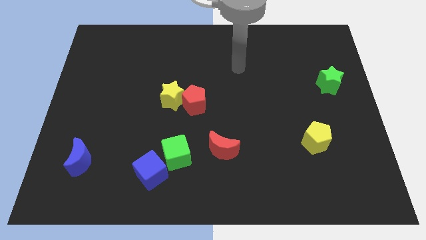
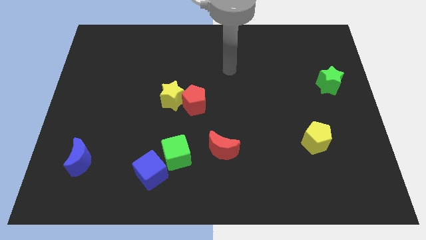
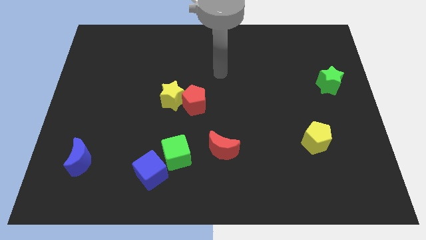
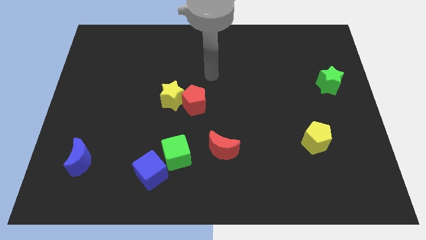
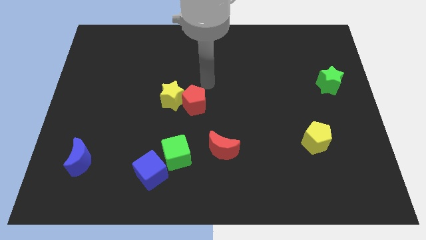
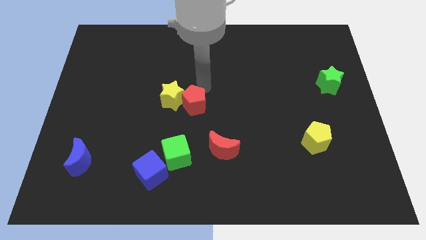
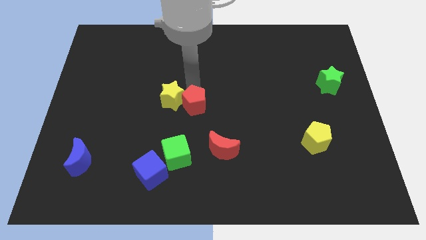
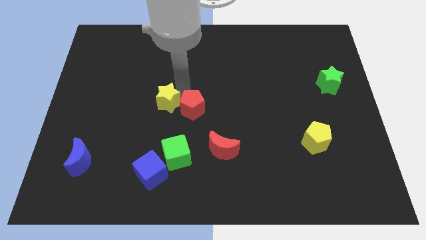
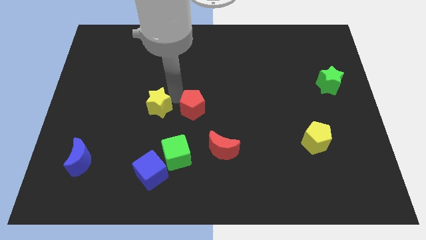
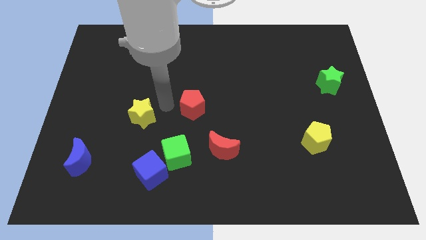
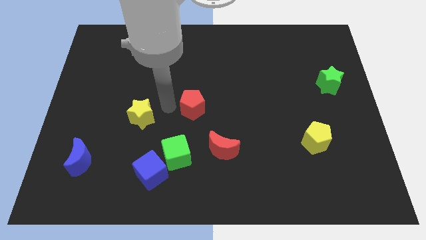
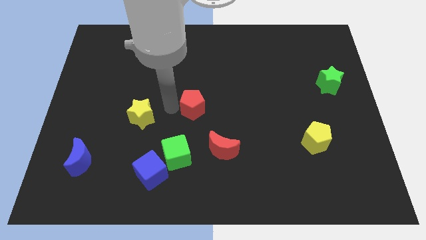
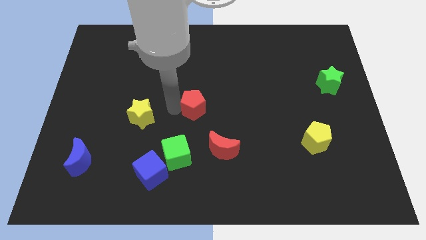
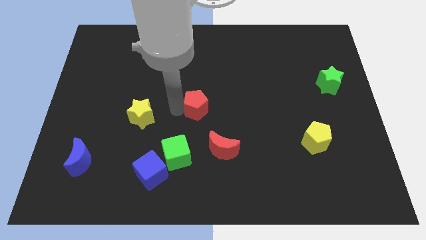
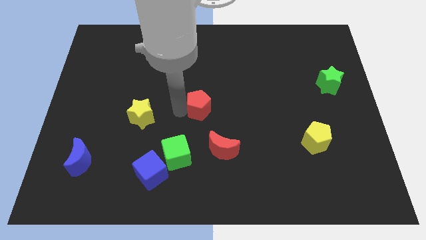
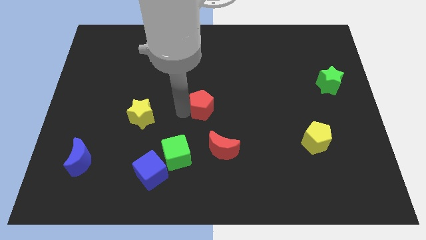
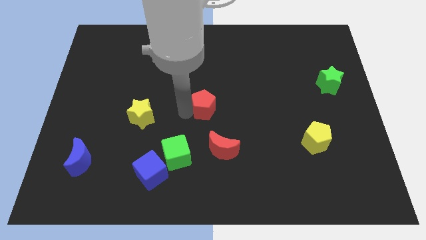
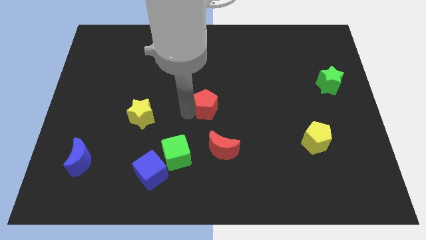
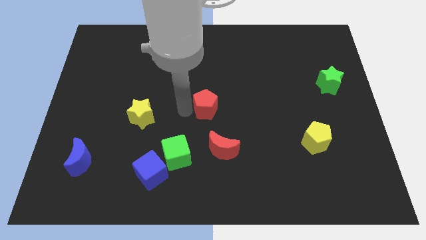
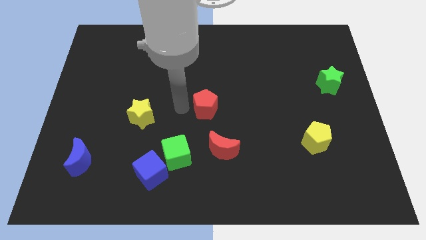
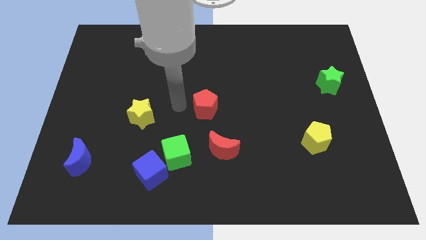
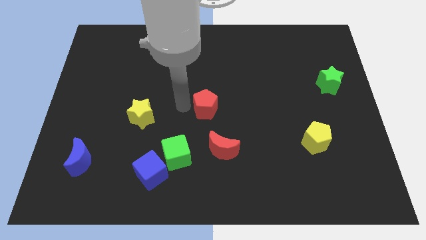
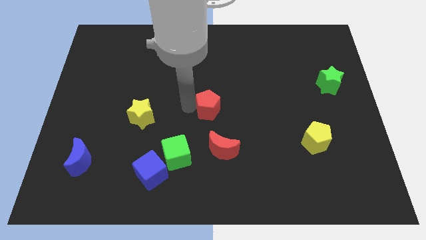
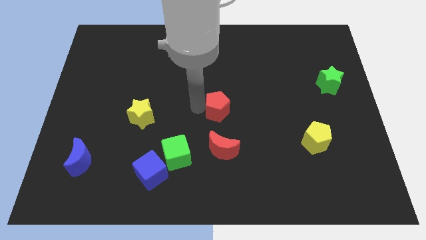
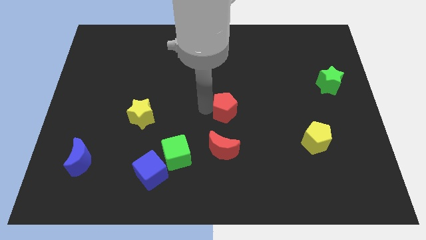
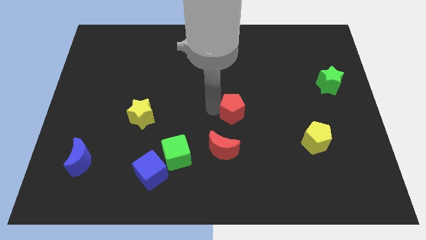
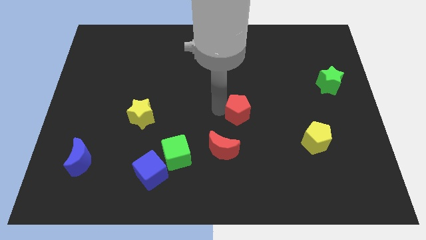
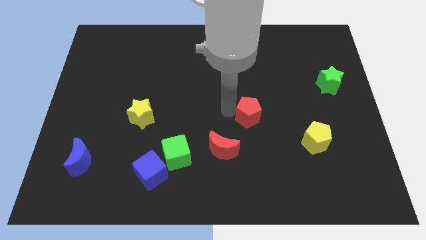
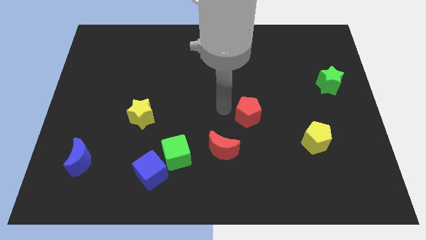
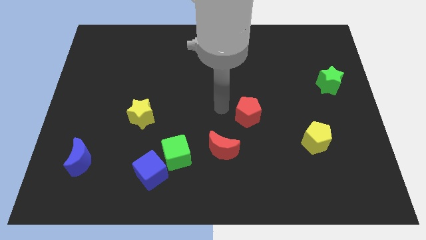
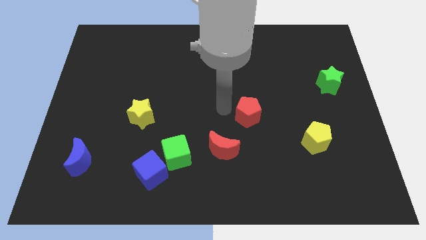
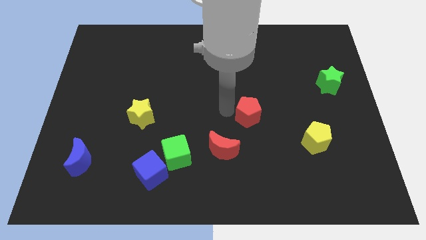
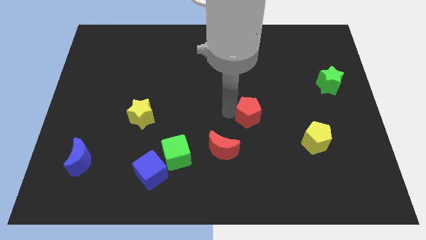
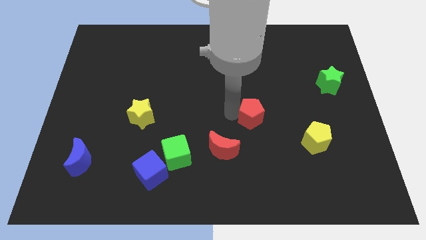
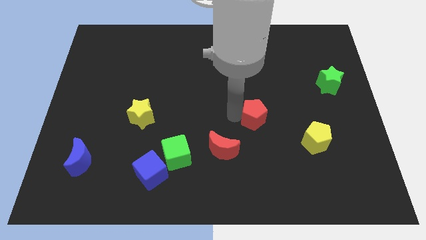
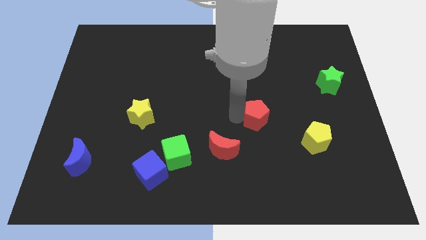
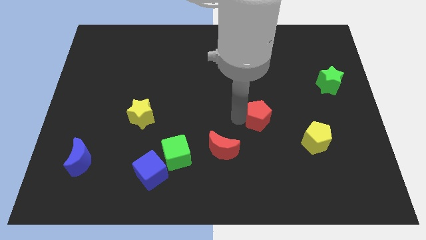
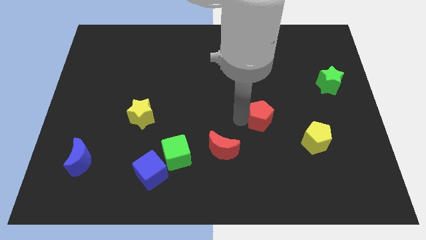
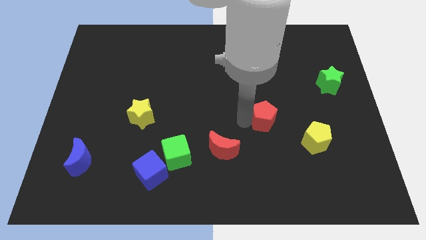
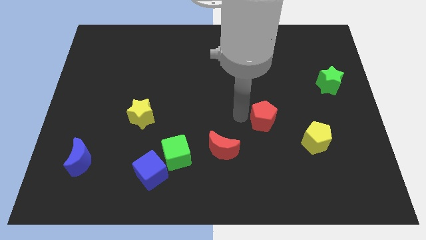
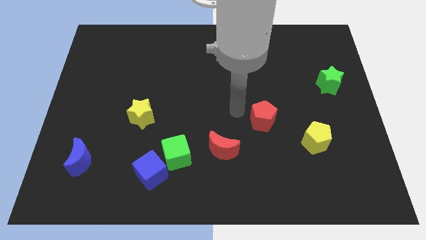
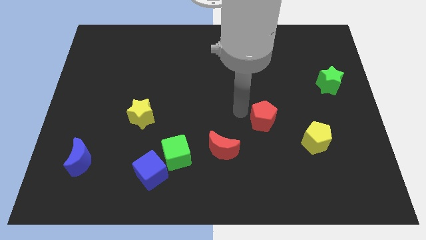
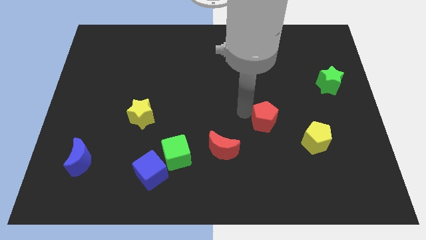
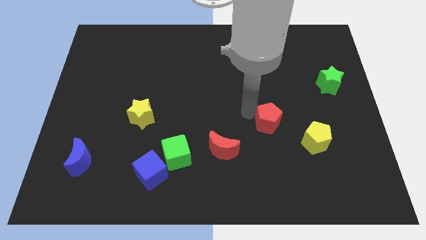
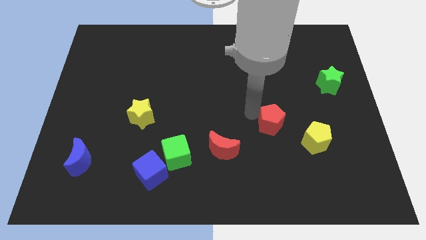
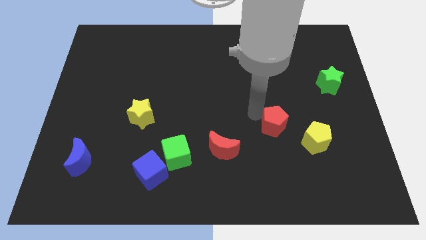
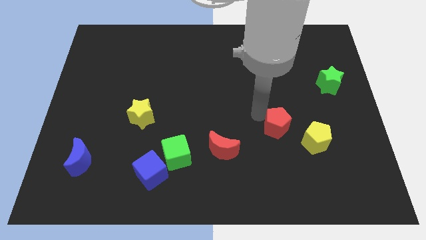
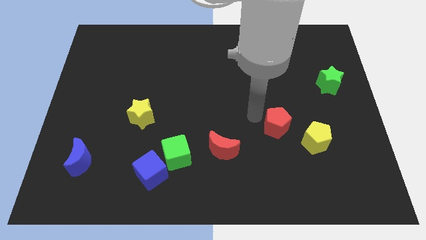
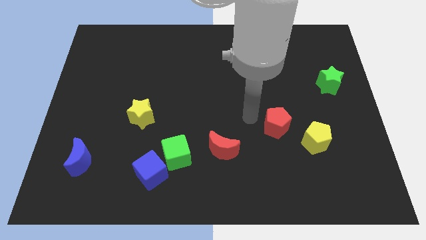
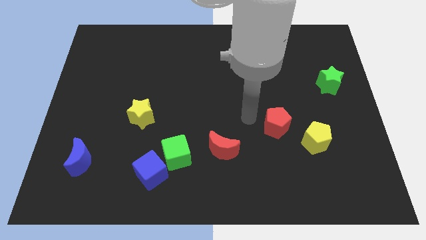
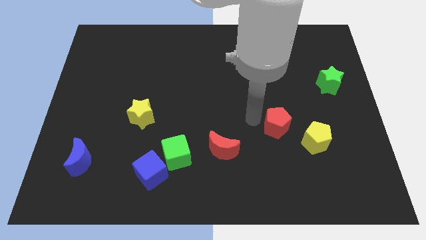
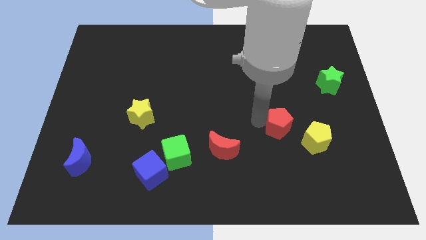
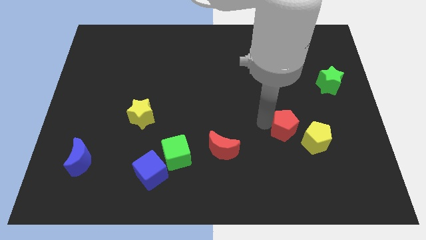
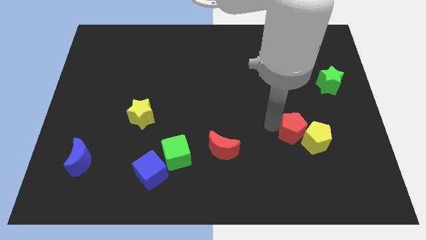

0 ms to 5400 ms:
push the red pentagon to the yellow pentagon

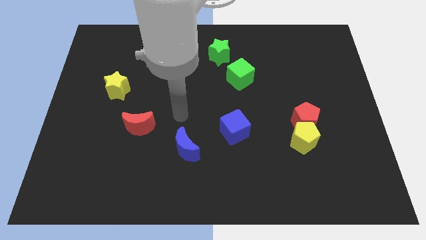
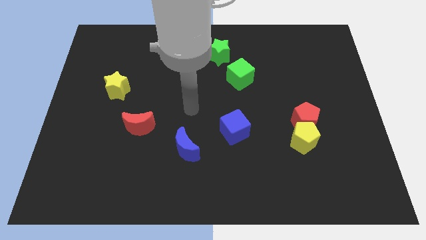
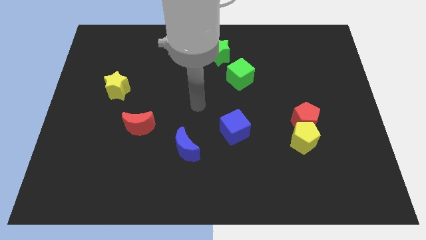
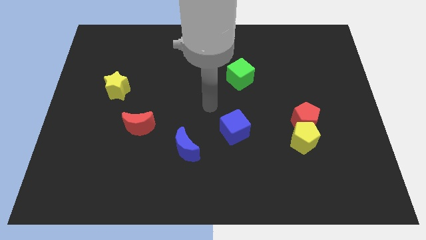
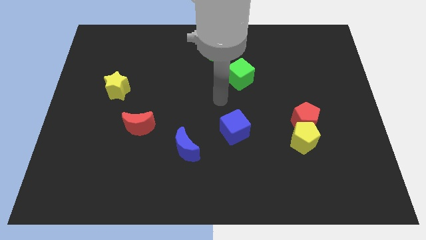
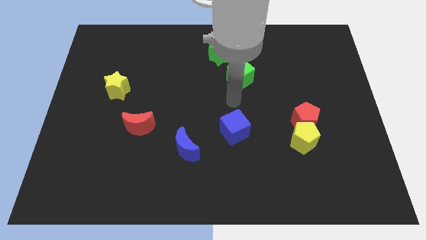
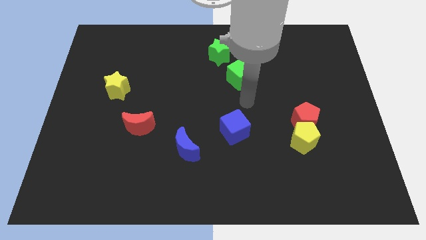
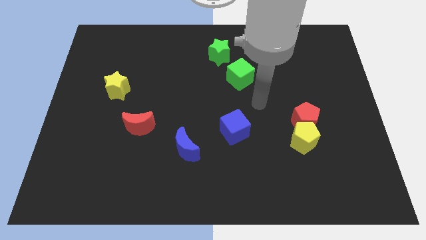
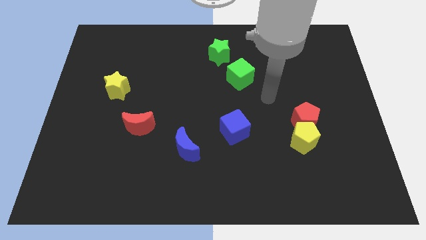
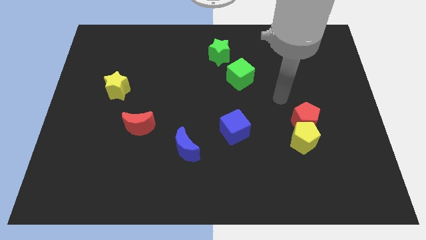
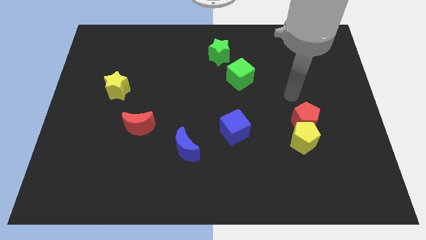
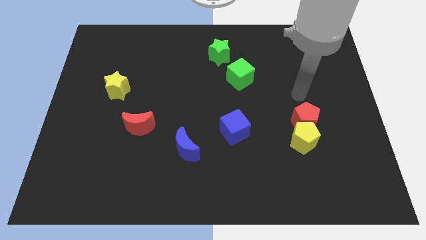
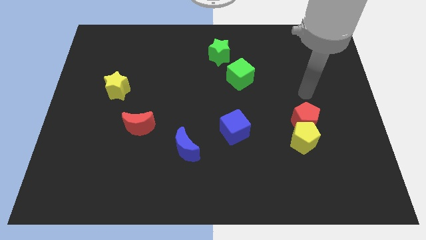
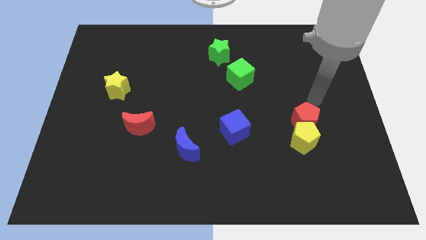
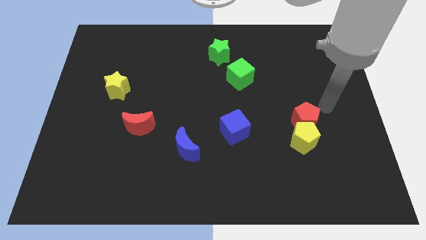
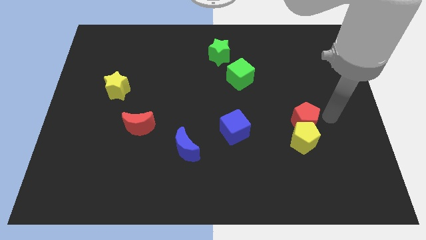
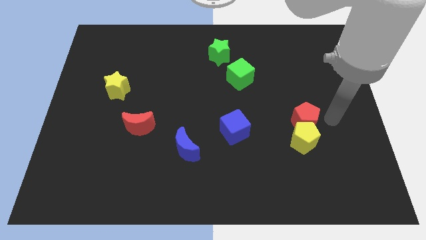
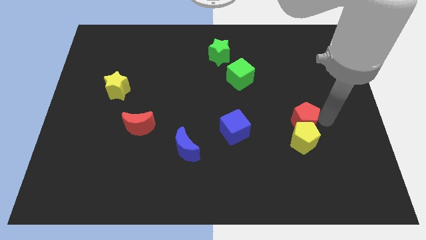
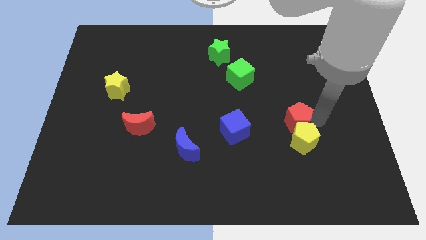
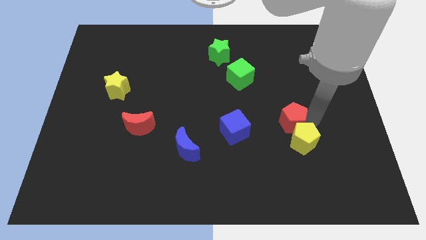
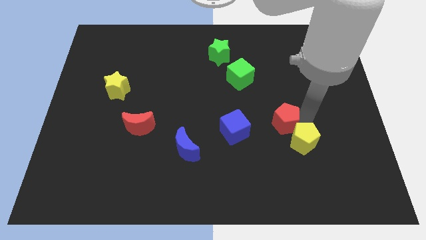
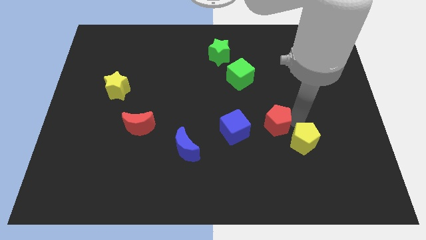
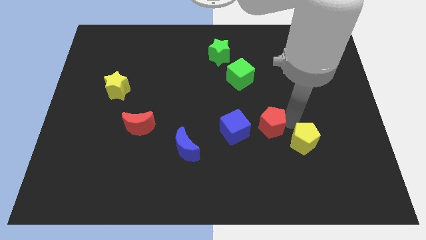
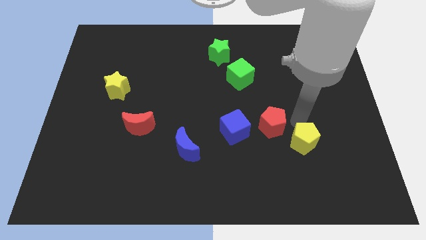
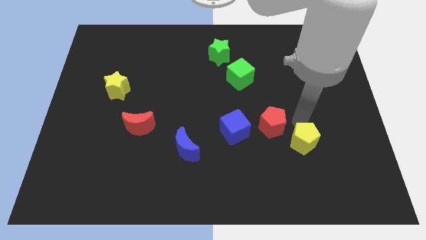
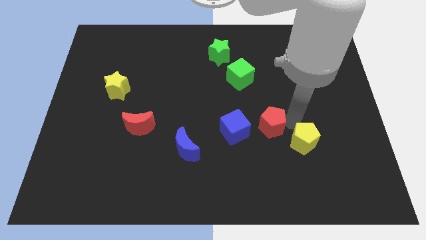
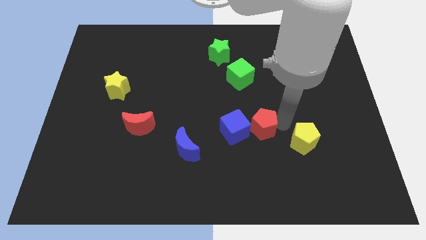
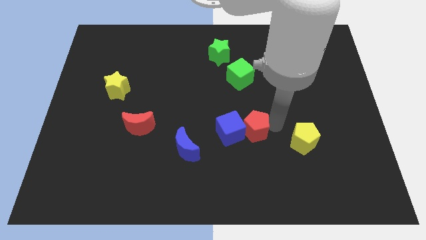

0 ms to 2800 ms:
move the red pentagon towards the blue cube
